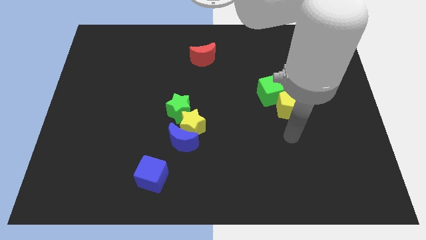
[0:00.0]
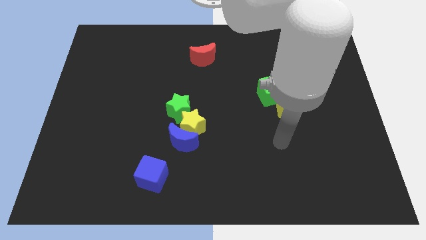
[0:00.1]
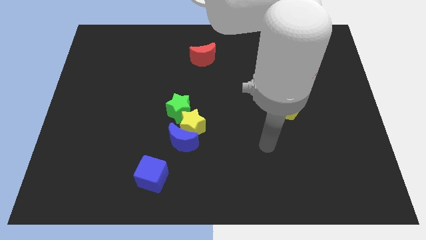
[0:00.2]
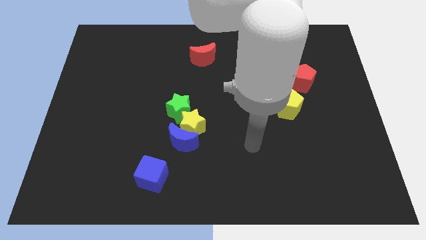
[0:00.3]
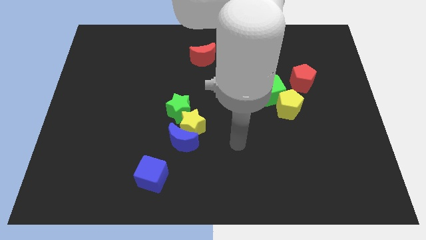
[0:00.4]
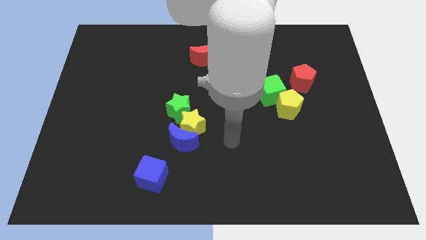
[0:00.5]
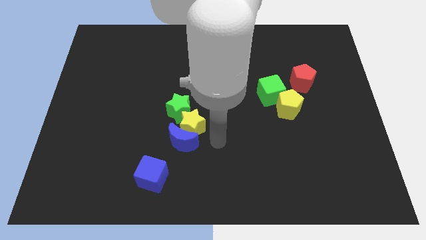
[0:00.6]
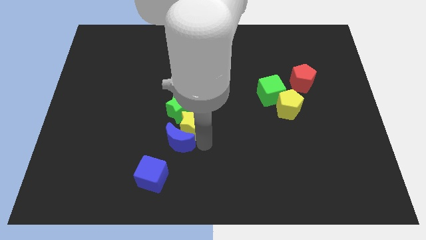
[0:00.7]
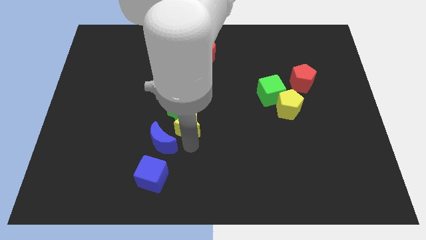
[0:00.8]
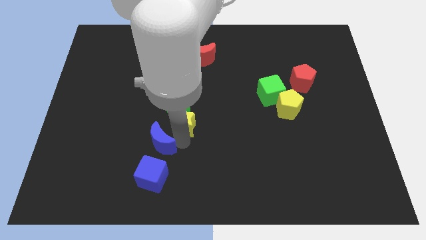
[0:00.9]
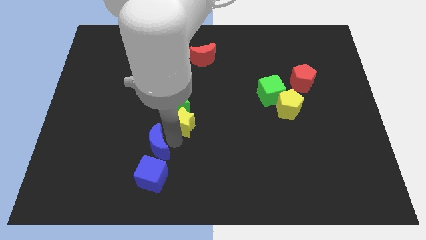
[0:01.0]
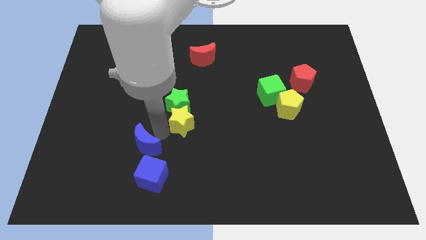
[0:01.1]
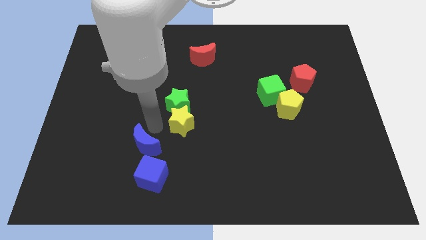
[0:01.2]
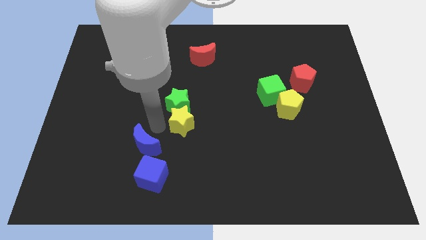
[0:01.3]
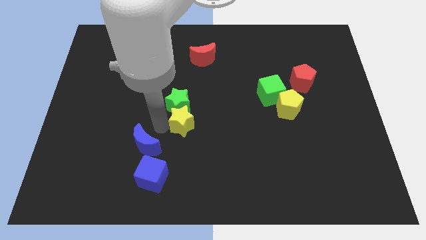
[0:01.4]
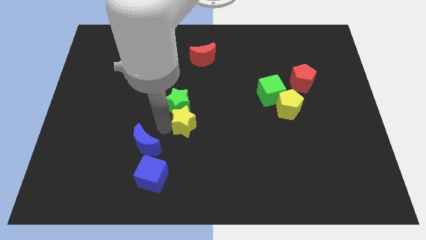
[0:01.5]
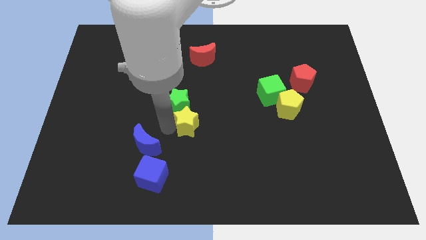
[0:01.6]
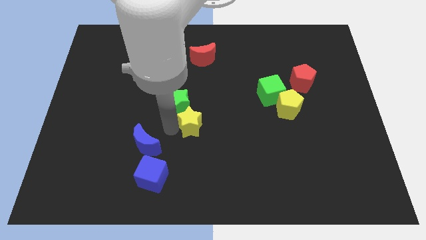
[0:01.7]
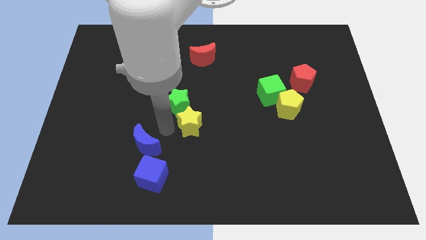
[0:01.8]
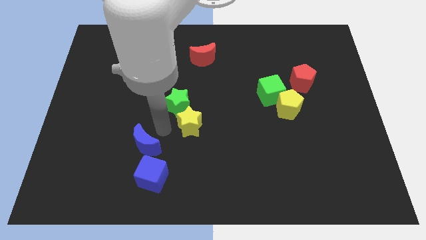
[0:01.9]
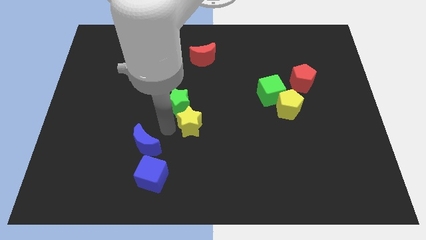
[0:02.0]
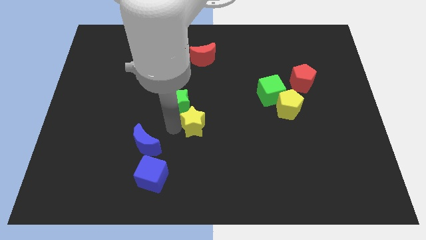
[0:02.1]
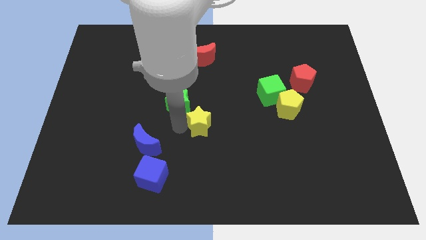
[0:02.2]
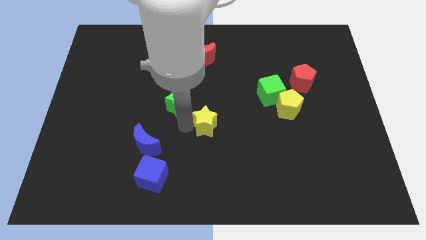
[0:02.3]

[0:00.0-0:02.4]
move the yellow star away from the blue moon and green star

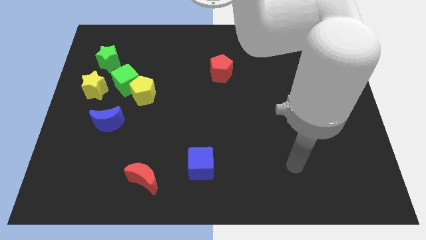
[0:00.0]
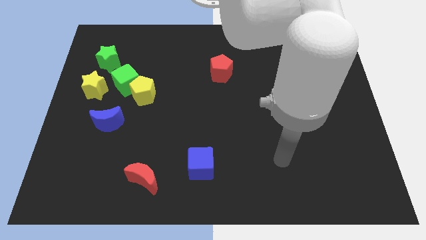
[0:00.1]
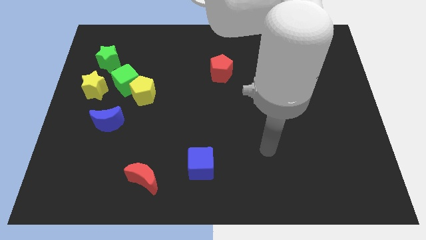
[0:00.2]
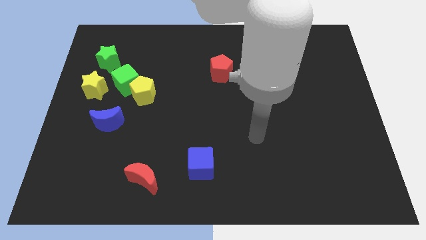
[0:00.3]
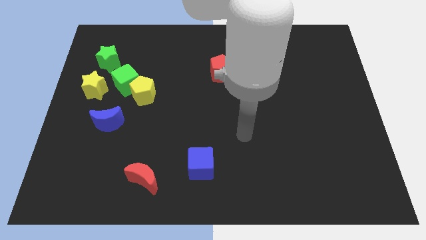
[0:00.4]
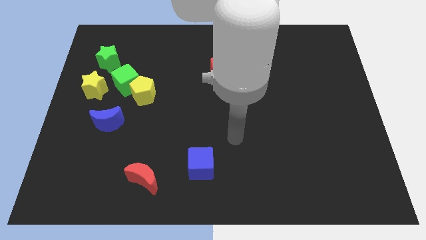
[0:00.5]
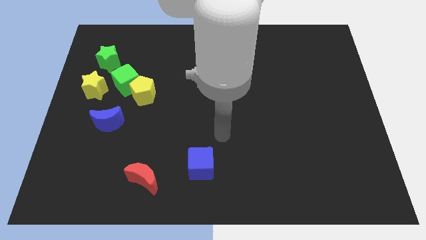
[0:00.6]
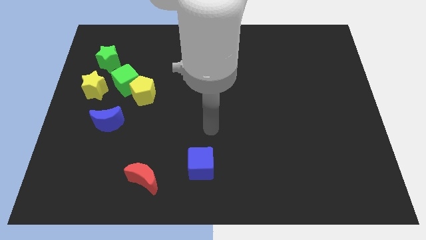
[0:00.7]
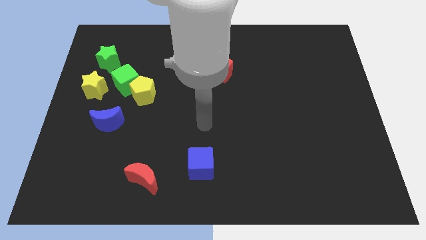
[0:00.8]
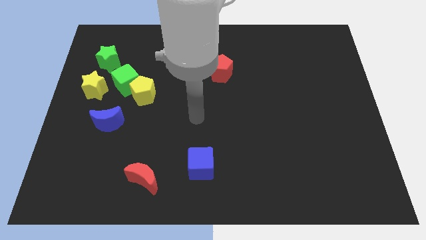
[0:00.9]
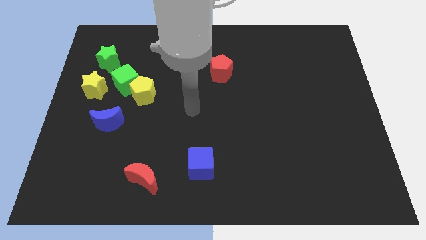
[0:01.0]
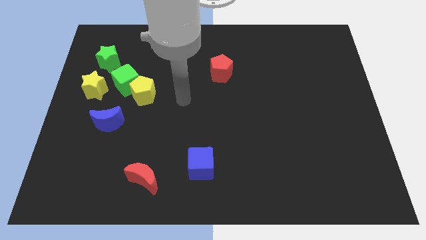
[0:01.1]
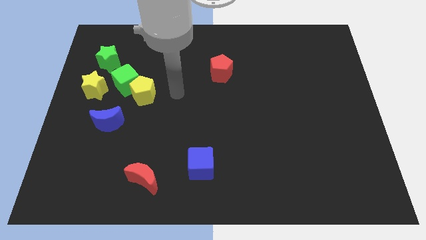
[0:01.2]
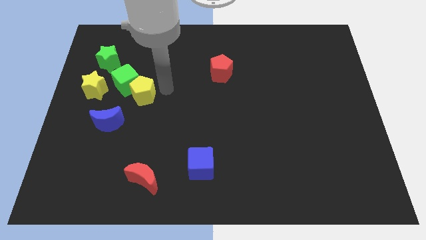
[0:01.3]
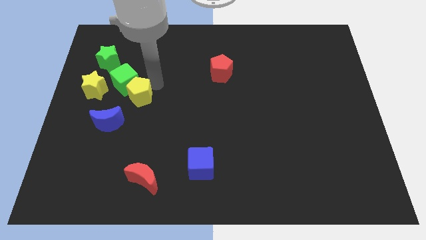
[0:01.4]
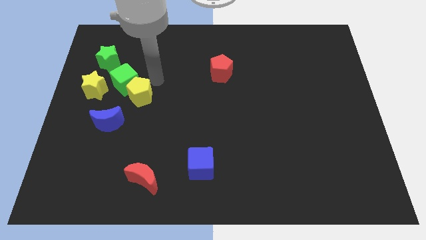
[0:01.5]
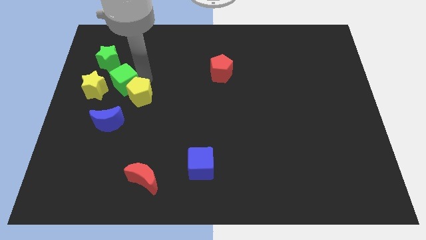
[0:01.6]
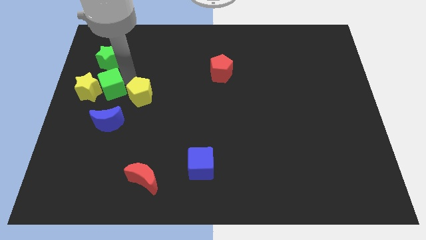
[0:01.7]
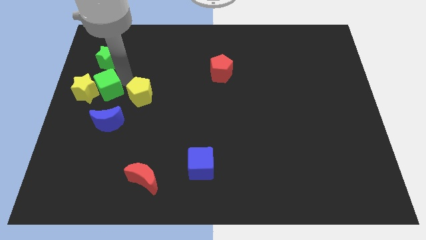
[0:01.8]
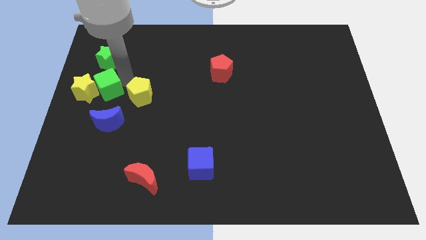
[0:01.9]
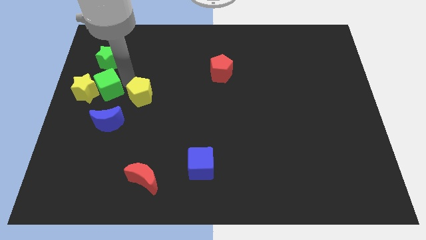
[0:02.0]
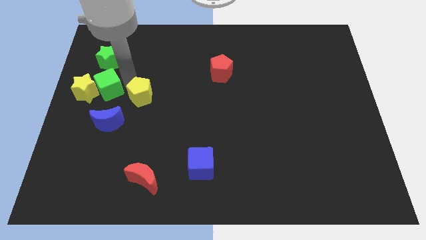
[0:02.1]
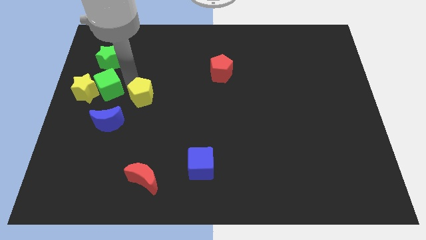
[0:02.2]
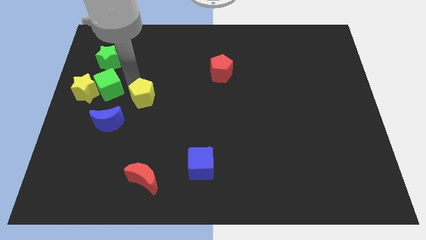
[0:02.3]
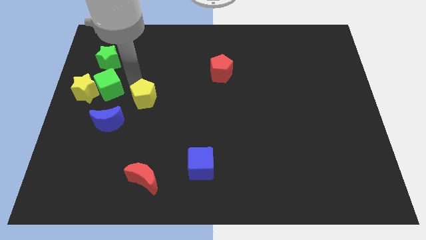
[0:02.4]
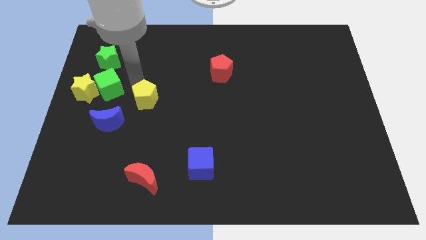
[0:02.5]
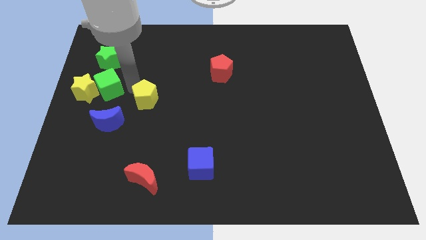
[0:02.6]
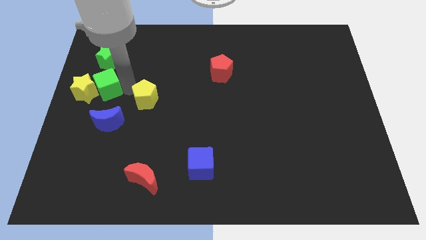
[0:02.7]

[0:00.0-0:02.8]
move the yellow pentagon away from the green cube

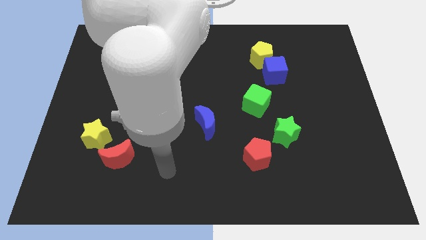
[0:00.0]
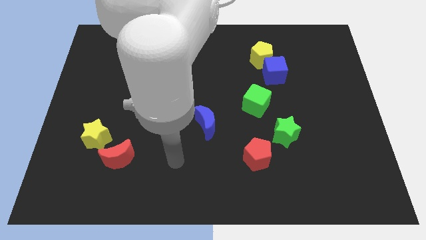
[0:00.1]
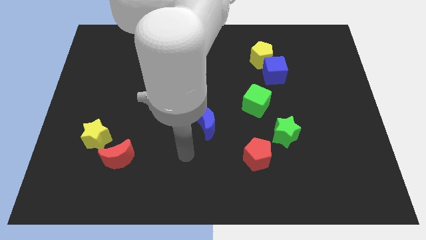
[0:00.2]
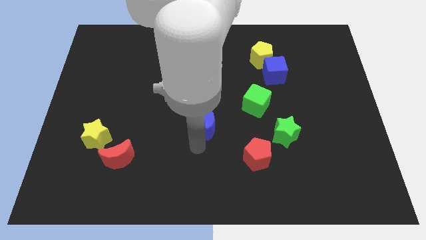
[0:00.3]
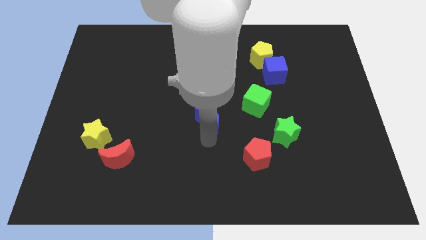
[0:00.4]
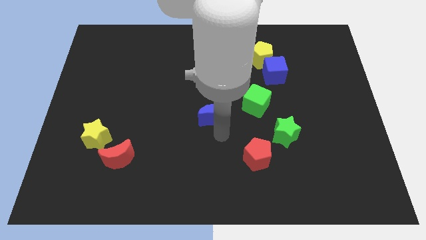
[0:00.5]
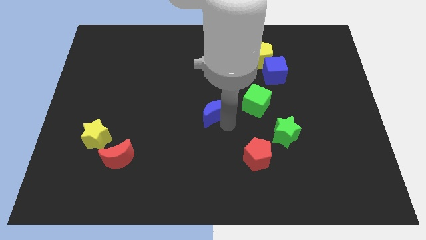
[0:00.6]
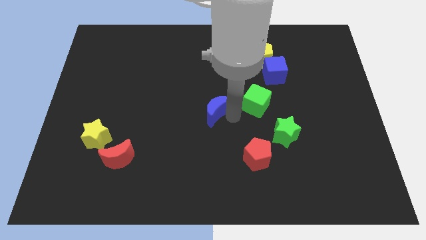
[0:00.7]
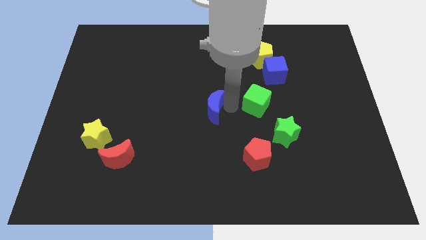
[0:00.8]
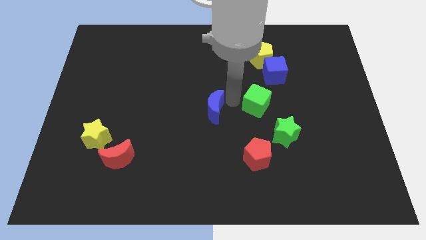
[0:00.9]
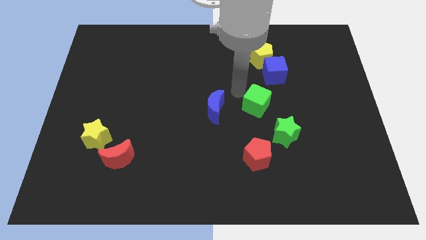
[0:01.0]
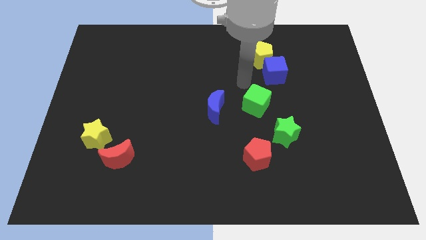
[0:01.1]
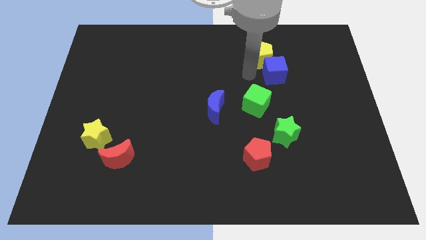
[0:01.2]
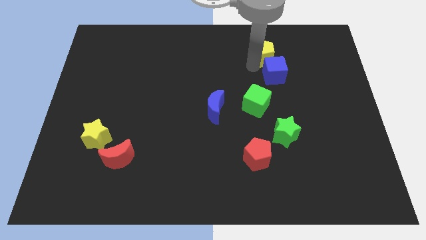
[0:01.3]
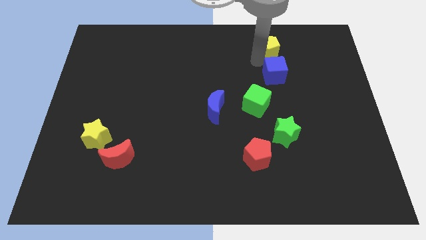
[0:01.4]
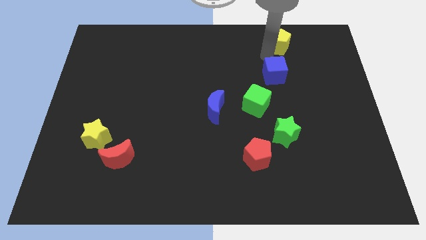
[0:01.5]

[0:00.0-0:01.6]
pull the blue cube apart from the yellow pentagon

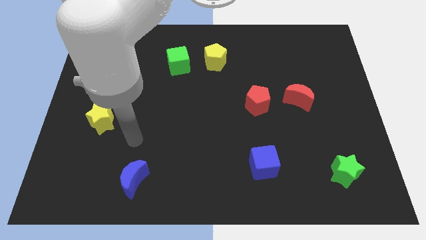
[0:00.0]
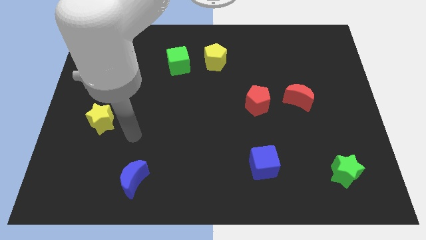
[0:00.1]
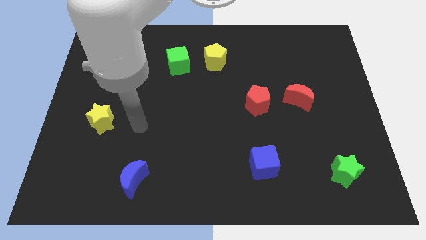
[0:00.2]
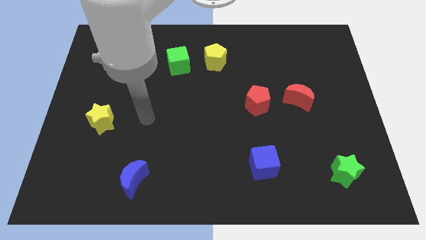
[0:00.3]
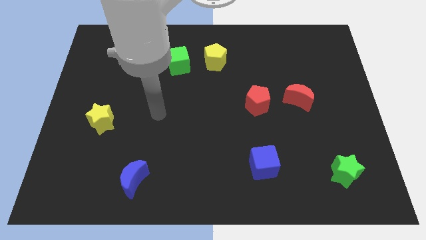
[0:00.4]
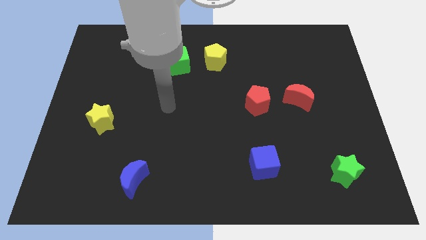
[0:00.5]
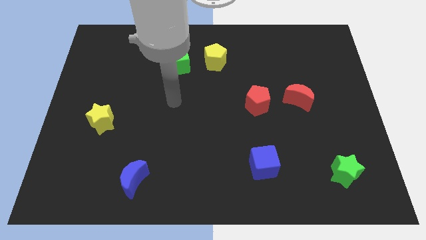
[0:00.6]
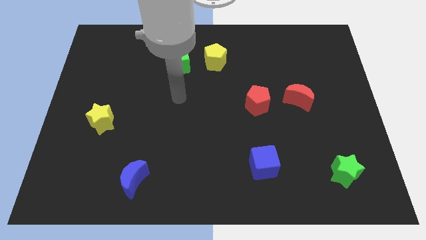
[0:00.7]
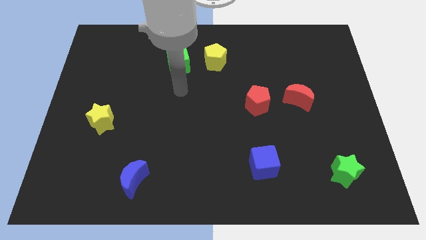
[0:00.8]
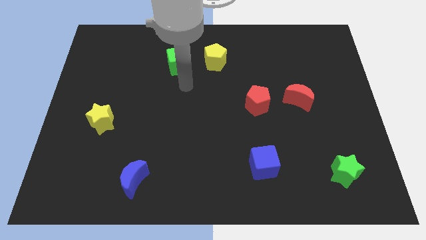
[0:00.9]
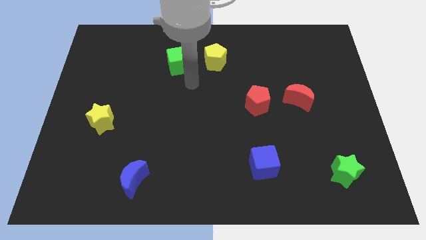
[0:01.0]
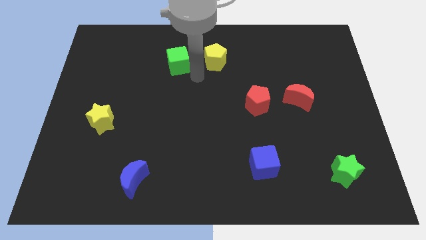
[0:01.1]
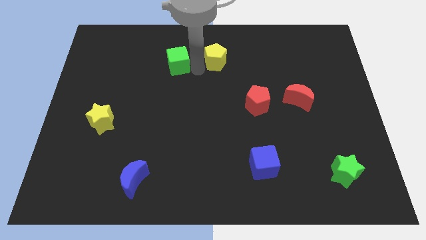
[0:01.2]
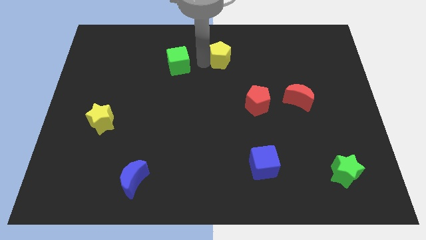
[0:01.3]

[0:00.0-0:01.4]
move the green cube away from the yellow pentagon

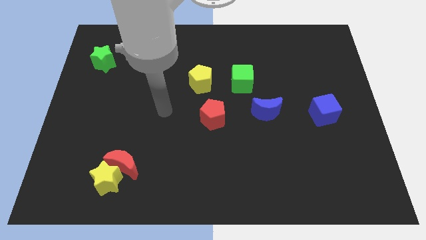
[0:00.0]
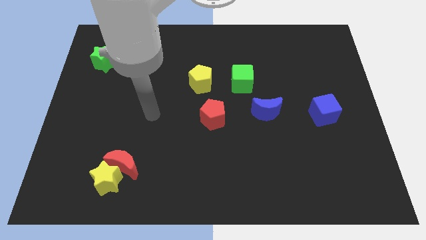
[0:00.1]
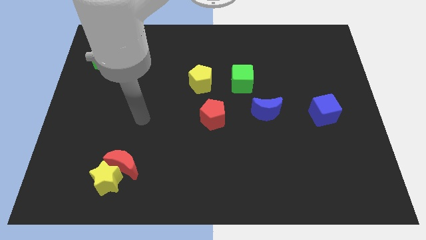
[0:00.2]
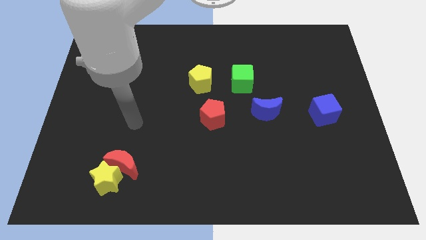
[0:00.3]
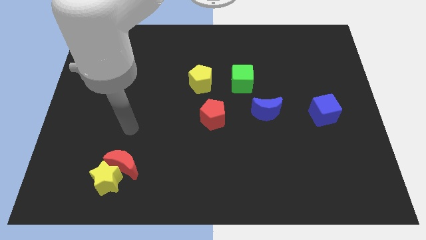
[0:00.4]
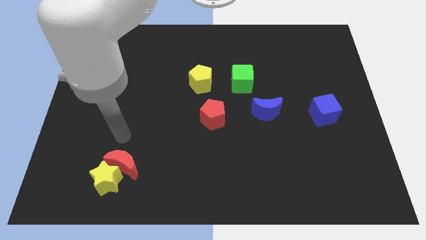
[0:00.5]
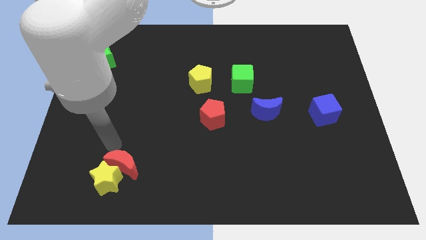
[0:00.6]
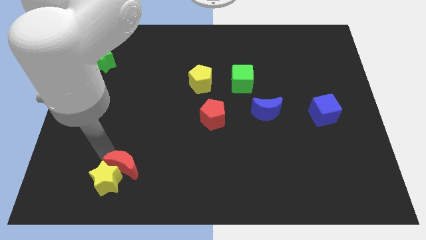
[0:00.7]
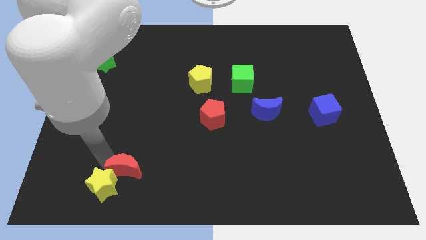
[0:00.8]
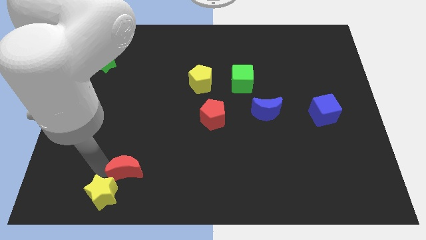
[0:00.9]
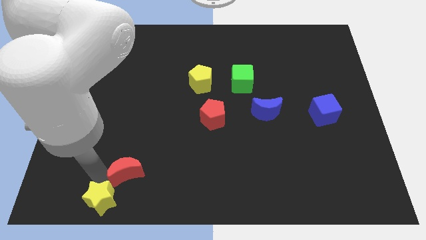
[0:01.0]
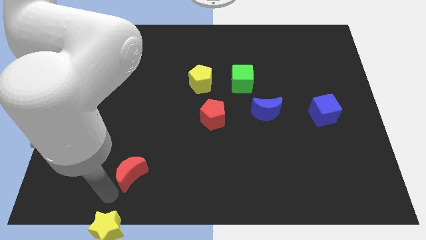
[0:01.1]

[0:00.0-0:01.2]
separate the red moon from the yellow star

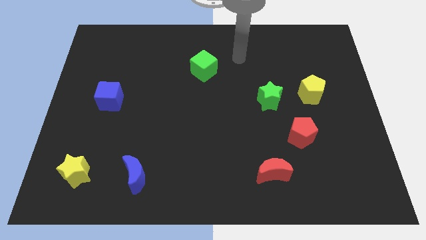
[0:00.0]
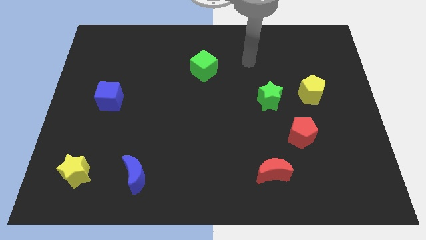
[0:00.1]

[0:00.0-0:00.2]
separate the green star from the yellow pentagon
